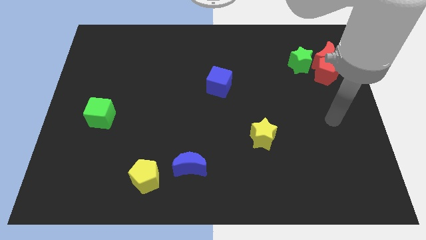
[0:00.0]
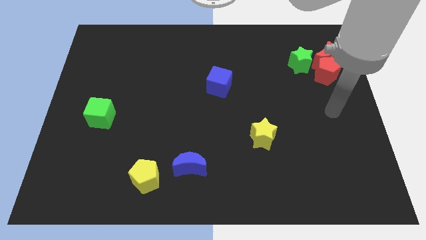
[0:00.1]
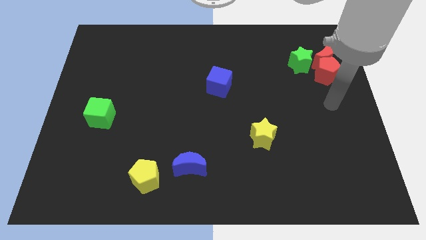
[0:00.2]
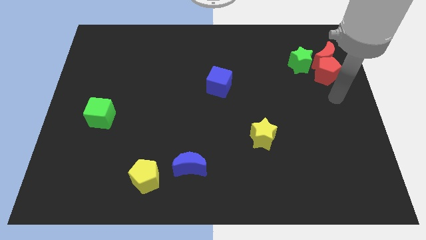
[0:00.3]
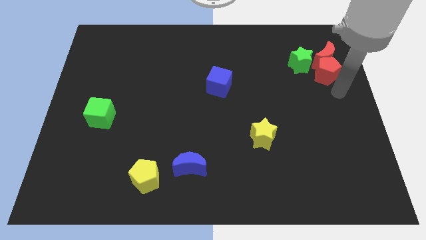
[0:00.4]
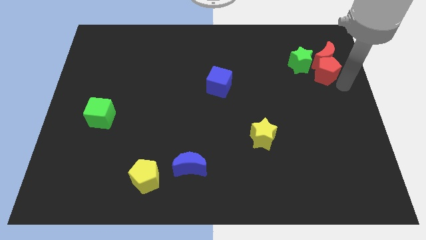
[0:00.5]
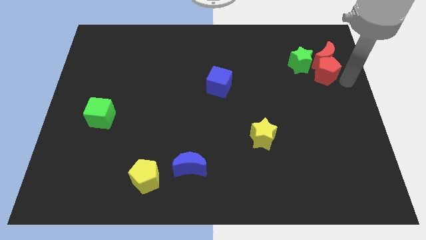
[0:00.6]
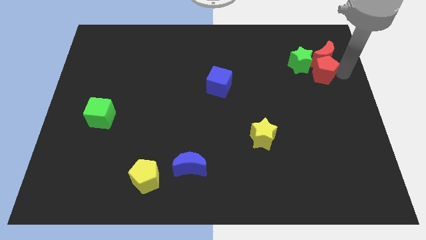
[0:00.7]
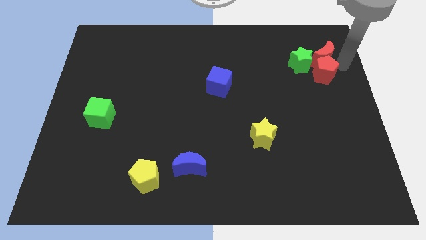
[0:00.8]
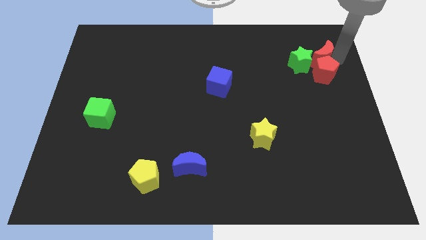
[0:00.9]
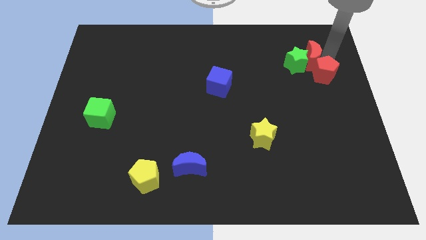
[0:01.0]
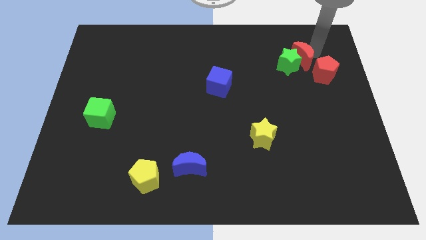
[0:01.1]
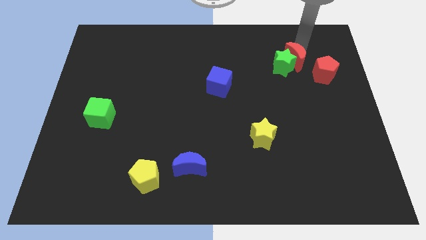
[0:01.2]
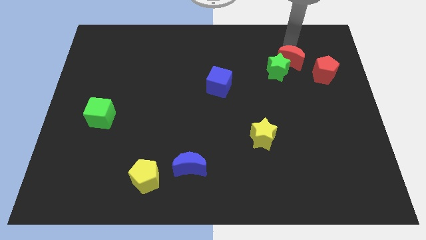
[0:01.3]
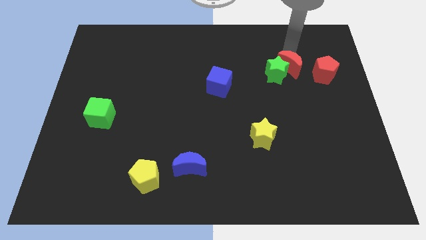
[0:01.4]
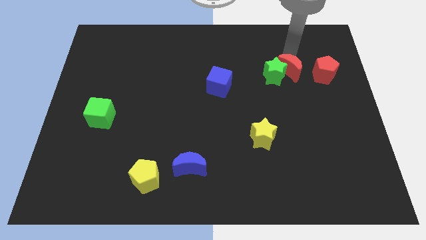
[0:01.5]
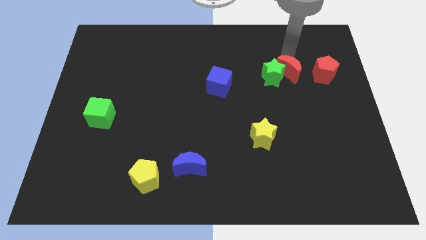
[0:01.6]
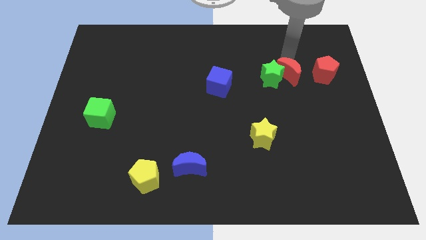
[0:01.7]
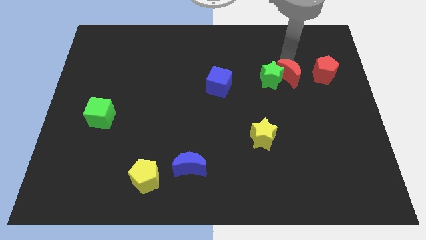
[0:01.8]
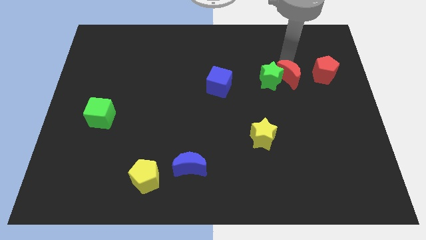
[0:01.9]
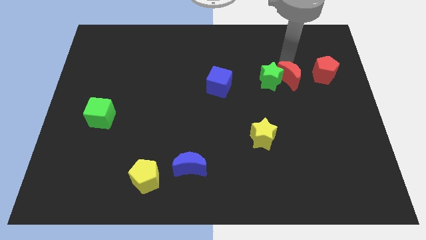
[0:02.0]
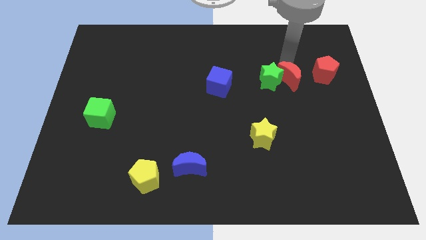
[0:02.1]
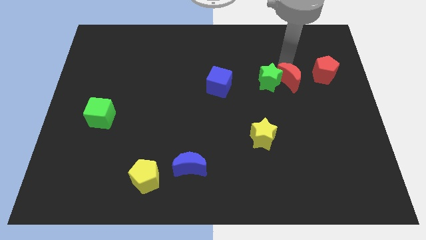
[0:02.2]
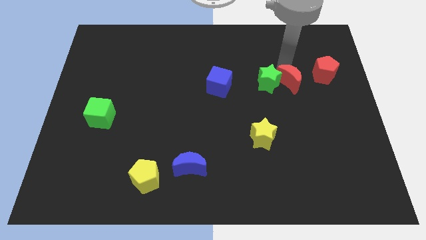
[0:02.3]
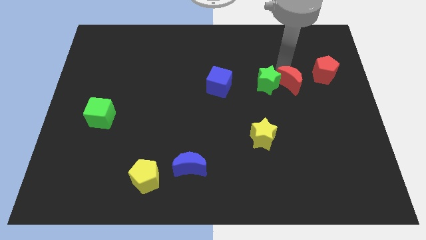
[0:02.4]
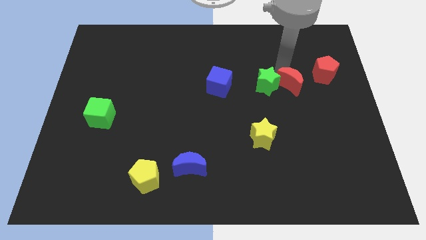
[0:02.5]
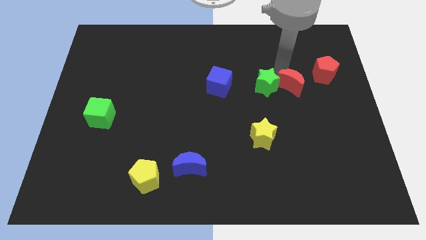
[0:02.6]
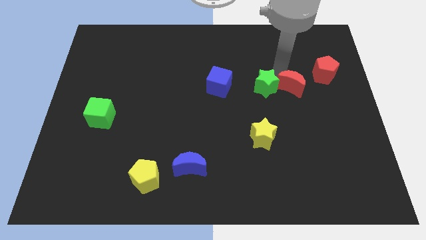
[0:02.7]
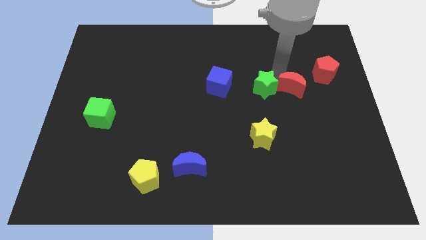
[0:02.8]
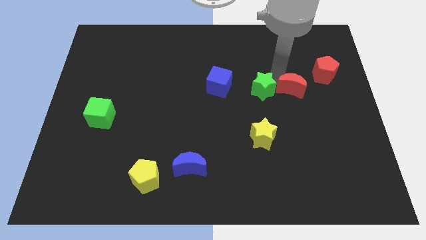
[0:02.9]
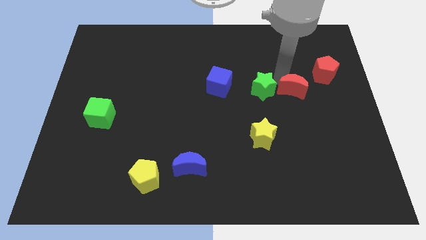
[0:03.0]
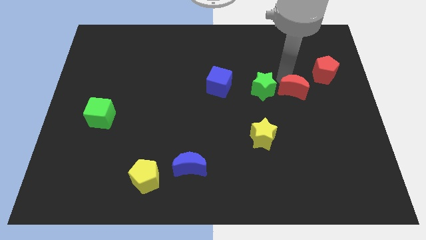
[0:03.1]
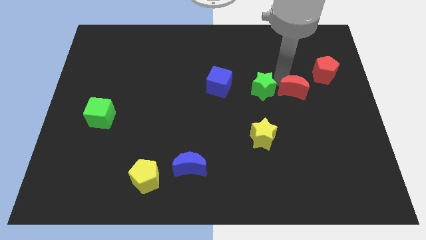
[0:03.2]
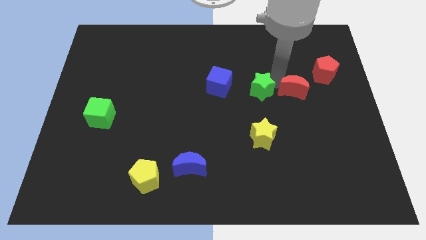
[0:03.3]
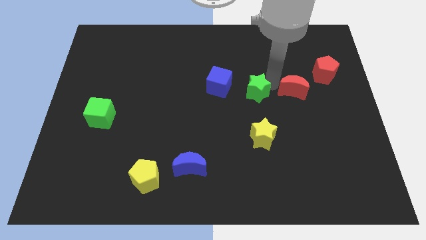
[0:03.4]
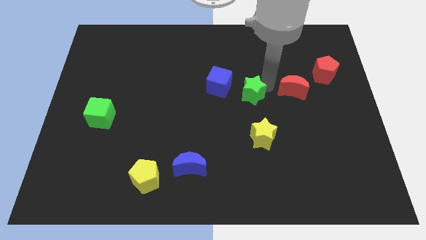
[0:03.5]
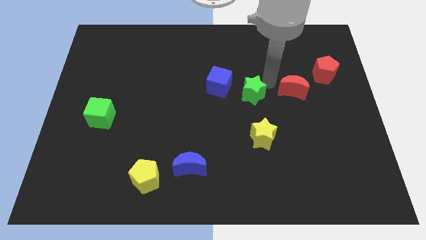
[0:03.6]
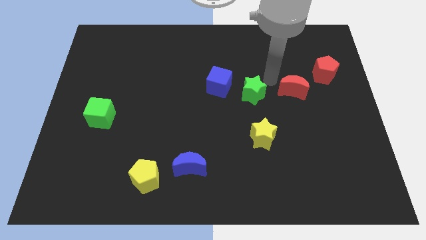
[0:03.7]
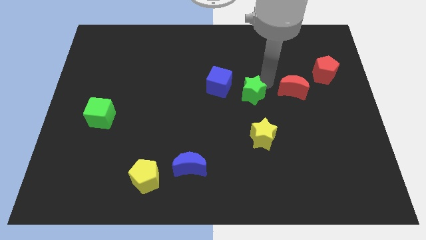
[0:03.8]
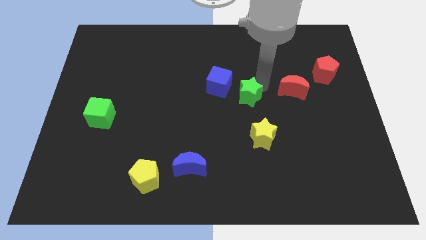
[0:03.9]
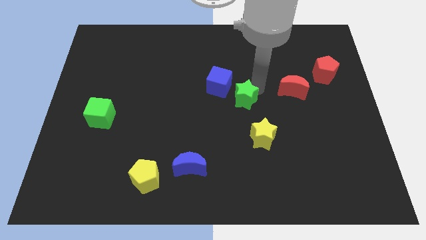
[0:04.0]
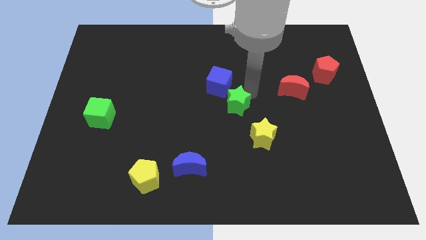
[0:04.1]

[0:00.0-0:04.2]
move the green star downwards and to the left

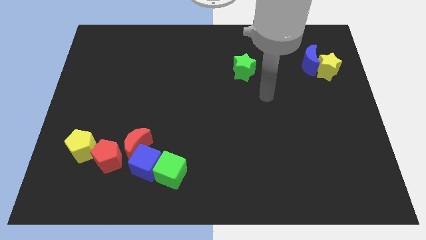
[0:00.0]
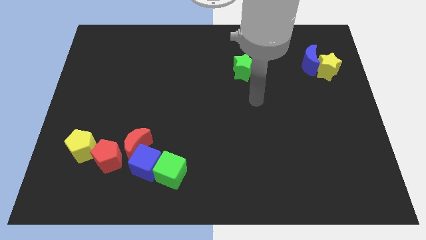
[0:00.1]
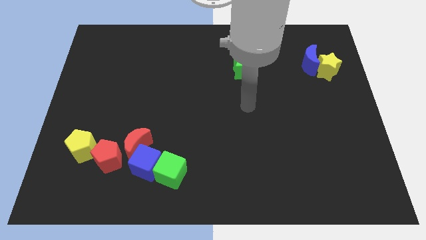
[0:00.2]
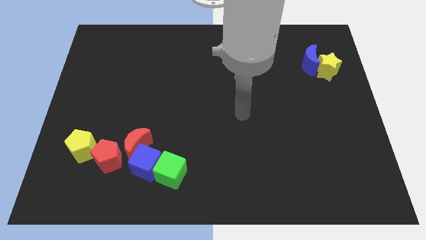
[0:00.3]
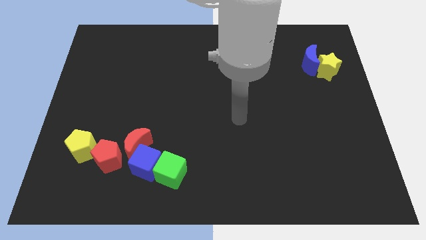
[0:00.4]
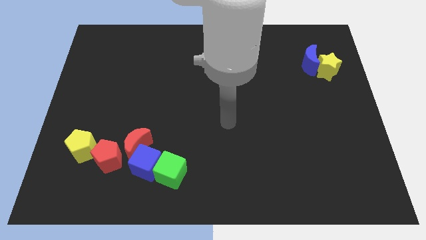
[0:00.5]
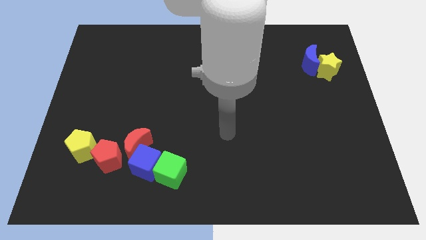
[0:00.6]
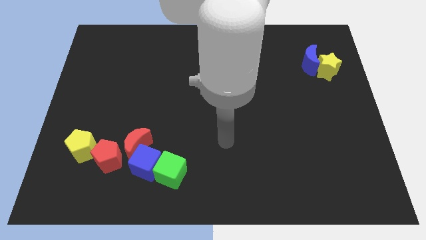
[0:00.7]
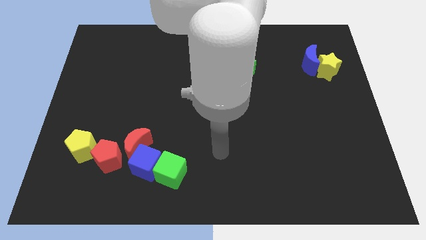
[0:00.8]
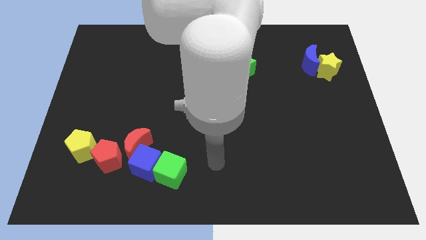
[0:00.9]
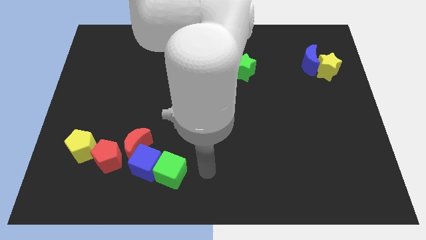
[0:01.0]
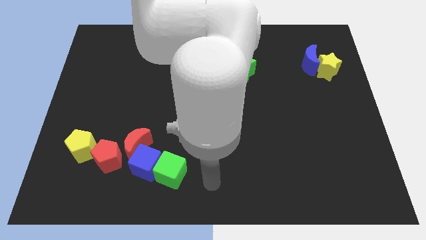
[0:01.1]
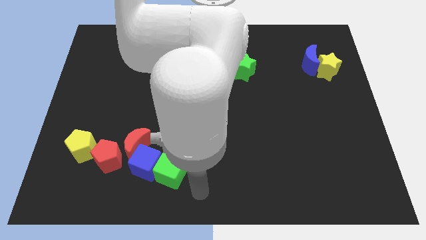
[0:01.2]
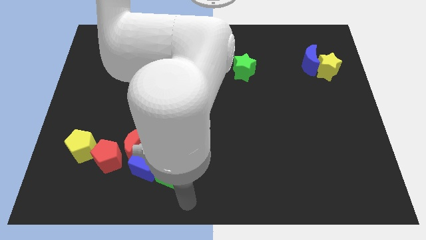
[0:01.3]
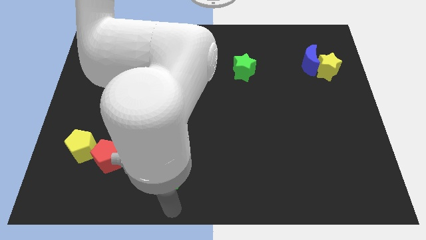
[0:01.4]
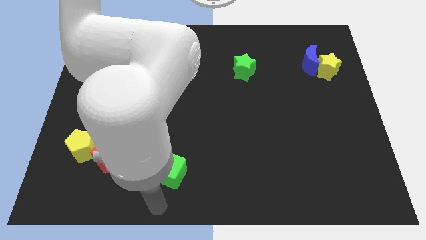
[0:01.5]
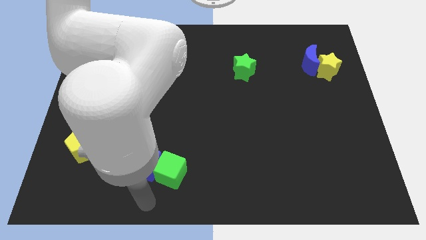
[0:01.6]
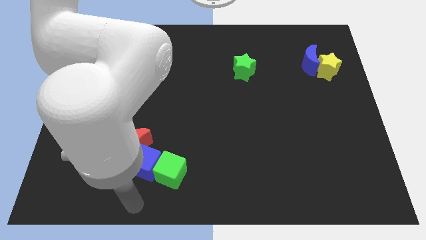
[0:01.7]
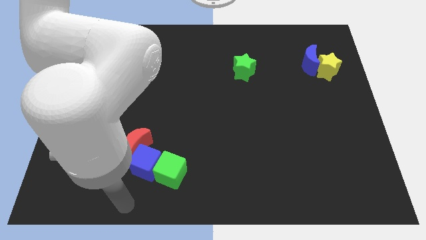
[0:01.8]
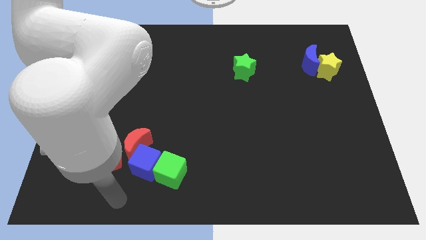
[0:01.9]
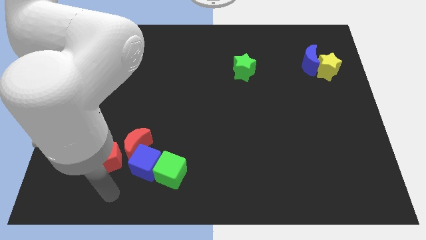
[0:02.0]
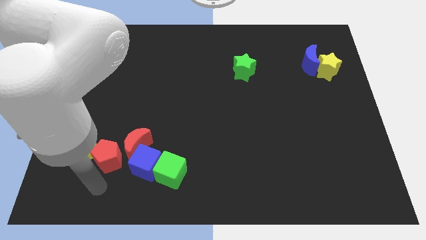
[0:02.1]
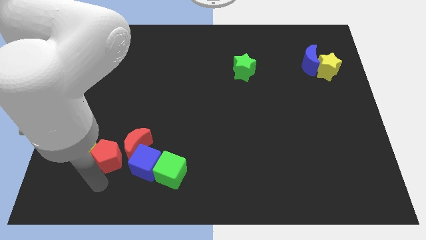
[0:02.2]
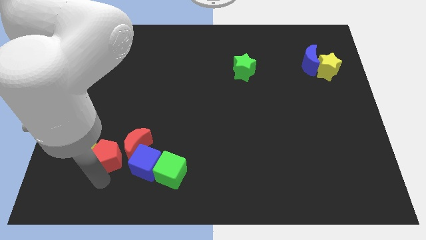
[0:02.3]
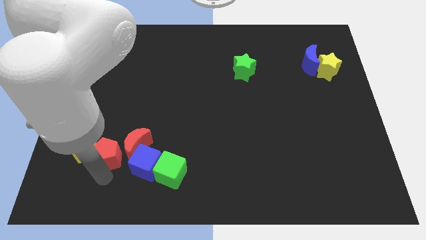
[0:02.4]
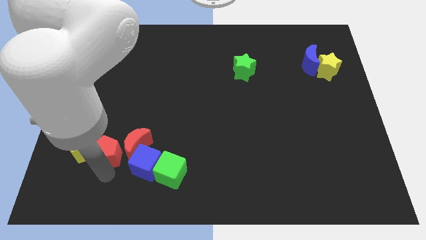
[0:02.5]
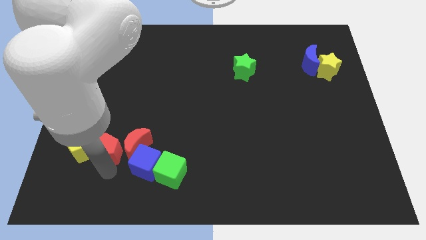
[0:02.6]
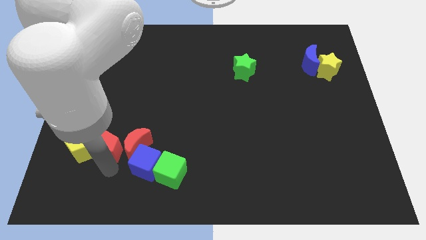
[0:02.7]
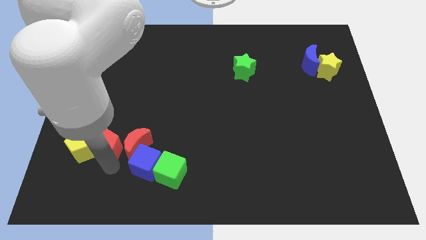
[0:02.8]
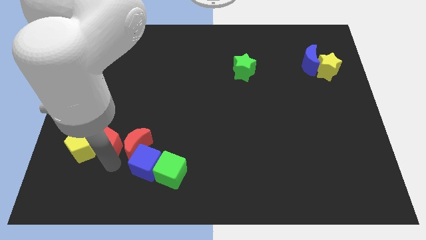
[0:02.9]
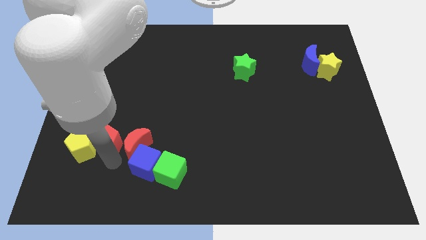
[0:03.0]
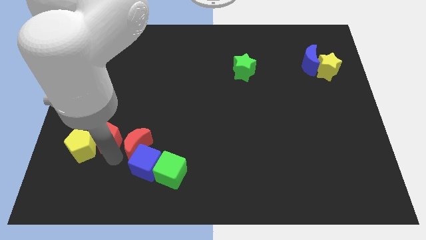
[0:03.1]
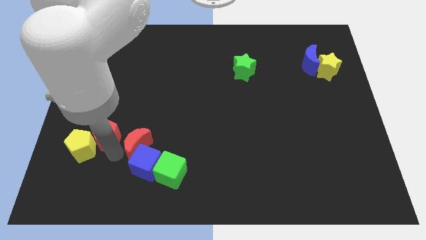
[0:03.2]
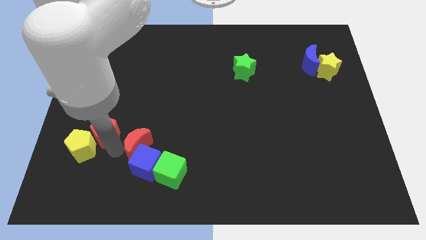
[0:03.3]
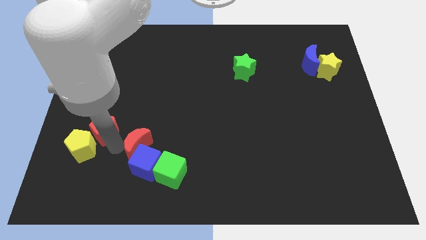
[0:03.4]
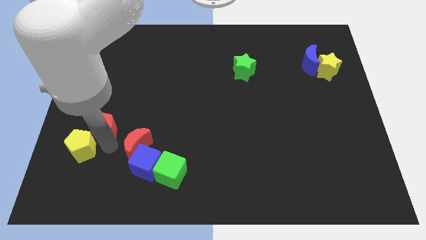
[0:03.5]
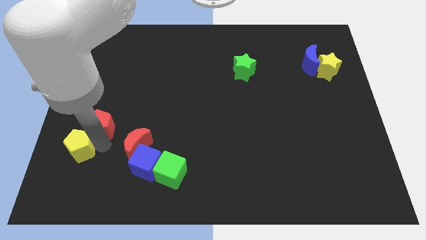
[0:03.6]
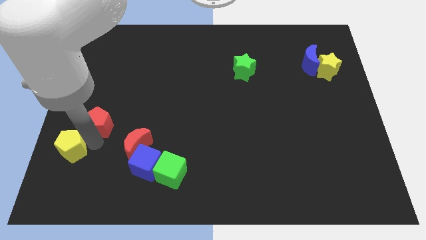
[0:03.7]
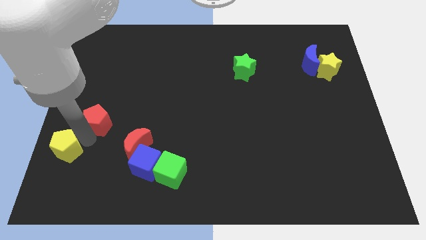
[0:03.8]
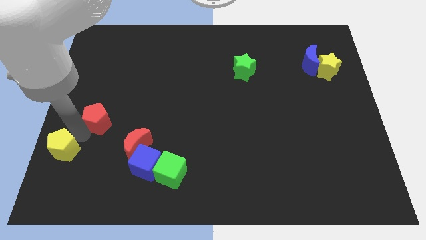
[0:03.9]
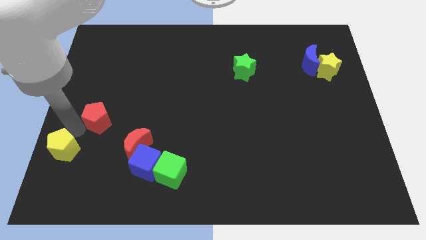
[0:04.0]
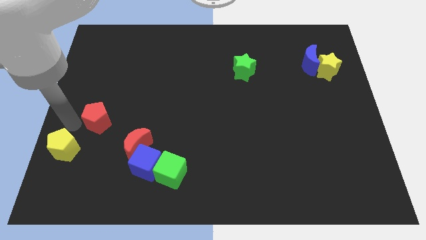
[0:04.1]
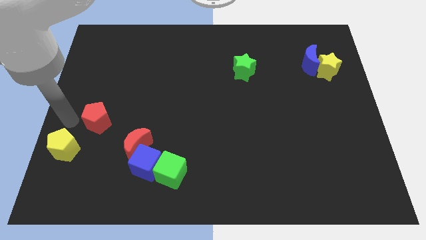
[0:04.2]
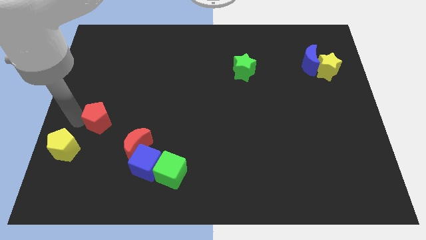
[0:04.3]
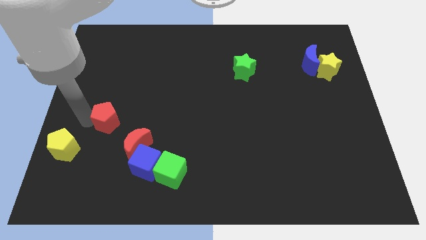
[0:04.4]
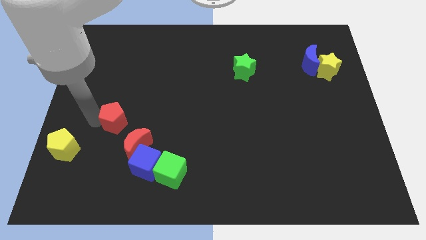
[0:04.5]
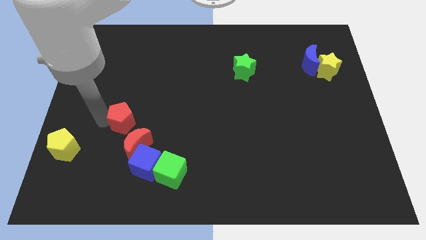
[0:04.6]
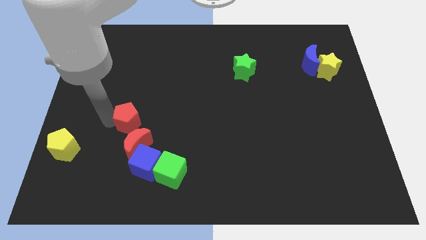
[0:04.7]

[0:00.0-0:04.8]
push the red pentagon a little diagonally up and to the right
